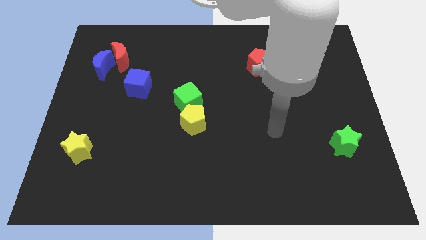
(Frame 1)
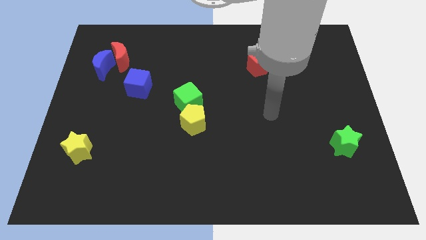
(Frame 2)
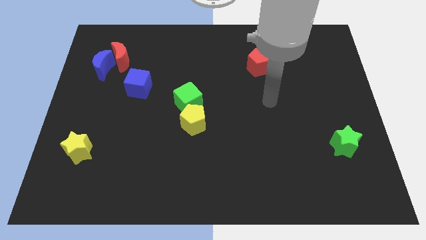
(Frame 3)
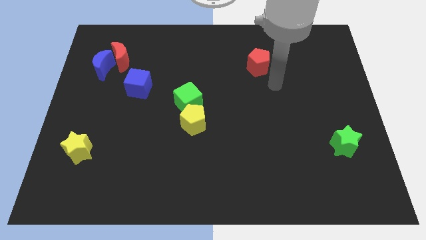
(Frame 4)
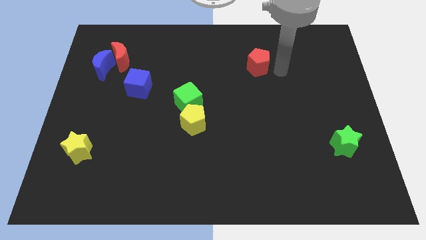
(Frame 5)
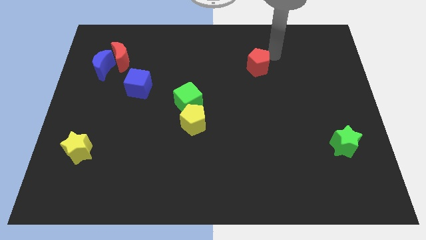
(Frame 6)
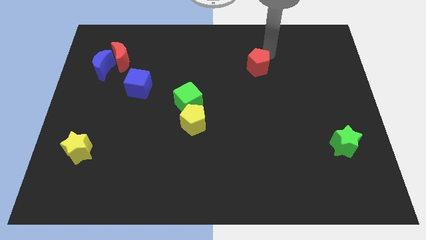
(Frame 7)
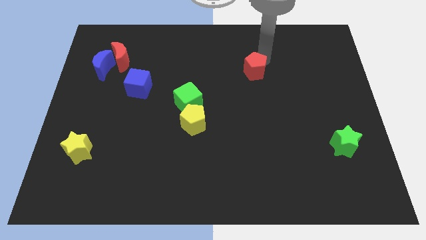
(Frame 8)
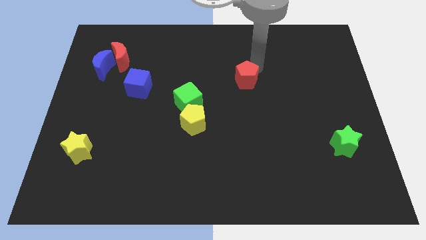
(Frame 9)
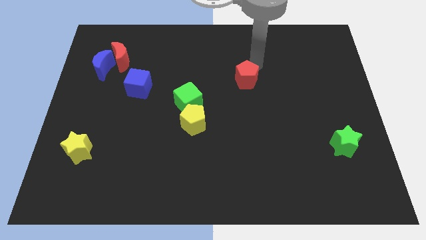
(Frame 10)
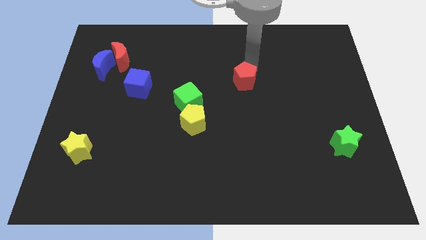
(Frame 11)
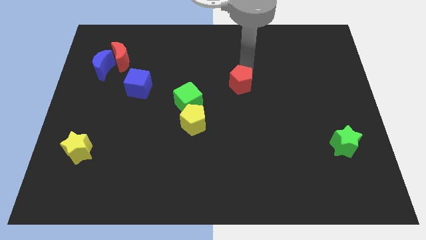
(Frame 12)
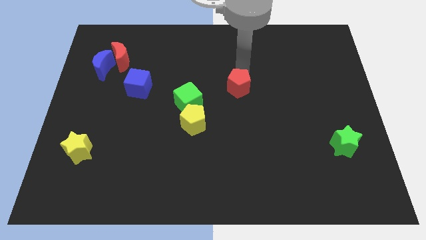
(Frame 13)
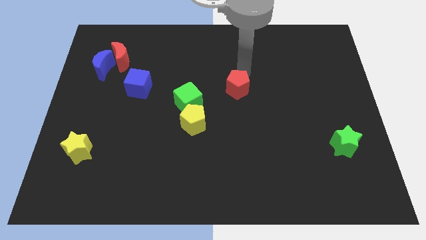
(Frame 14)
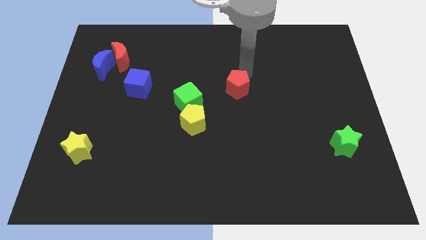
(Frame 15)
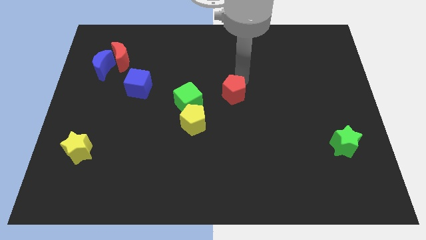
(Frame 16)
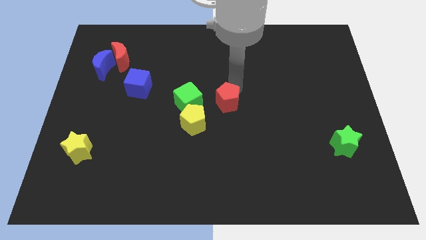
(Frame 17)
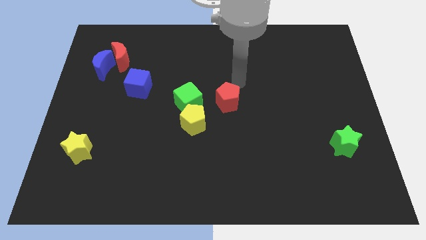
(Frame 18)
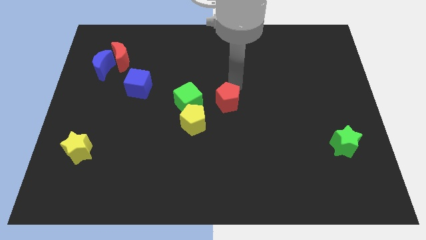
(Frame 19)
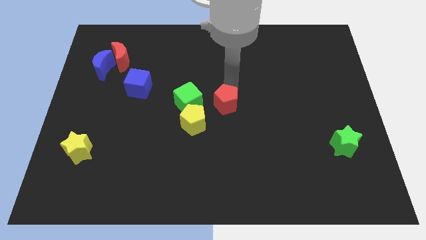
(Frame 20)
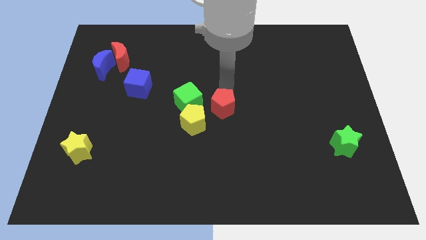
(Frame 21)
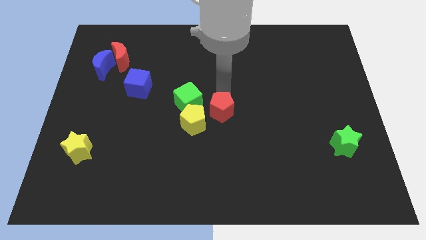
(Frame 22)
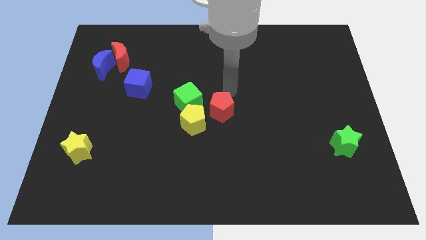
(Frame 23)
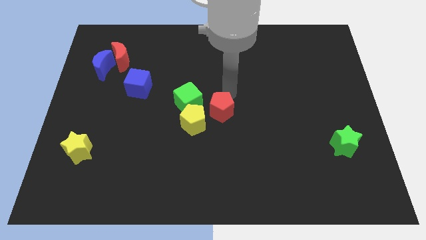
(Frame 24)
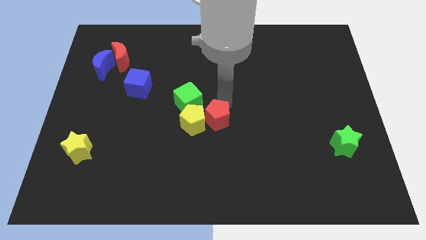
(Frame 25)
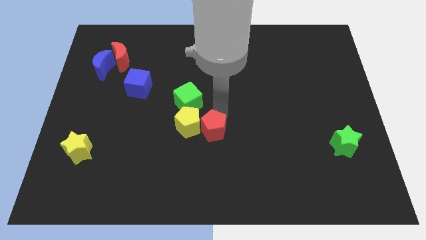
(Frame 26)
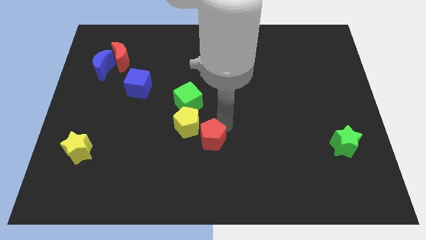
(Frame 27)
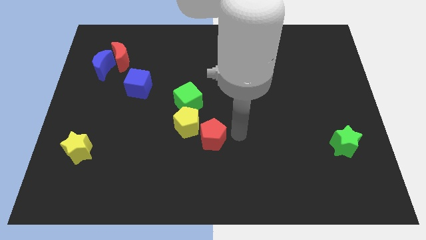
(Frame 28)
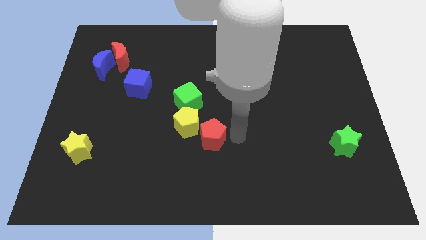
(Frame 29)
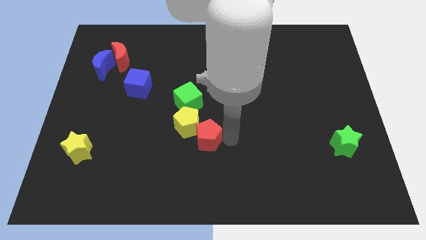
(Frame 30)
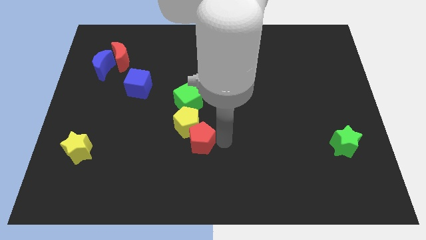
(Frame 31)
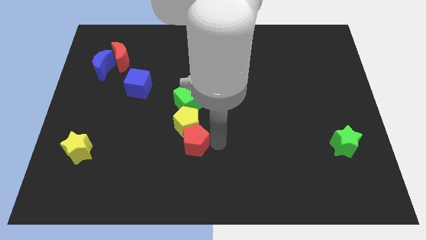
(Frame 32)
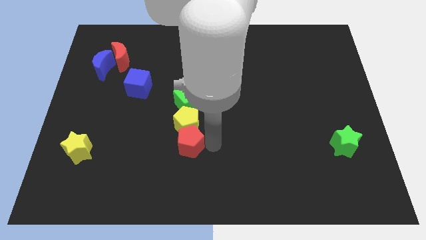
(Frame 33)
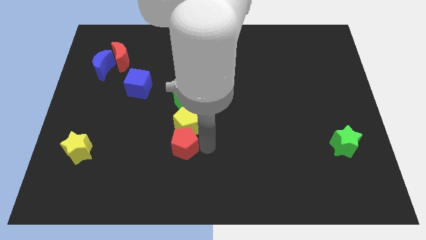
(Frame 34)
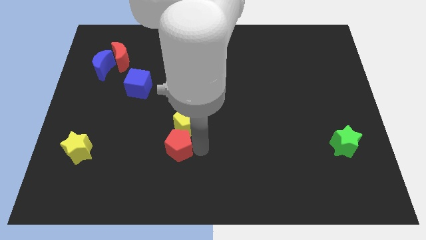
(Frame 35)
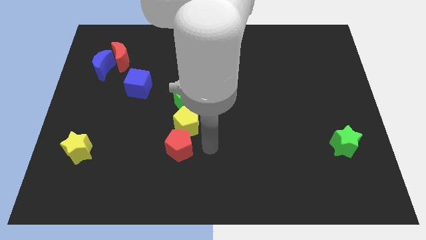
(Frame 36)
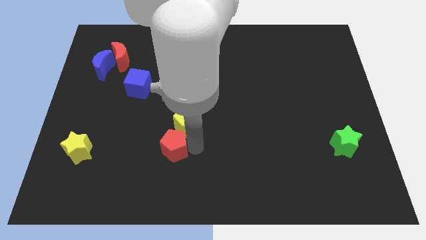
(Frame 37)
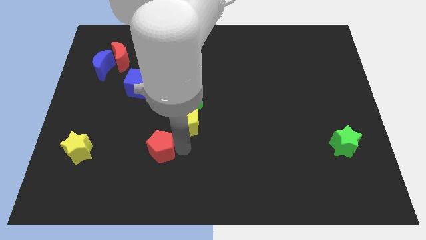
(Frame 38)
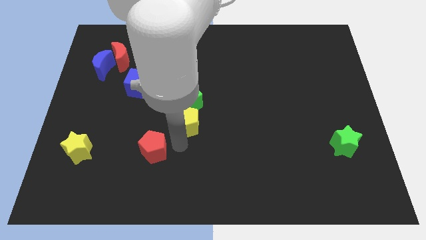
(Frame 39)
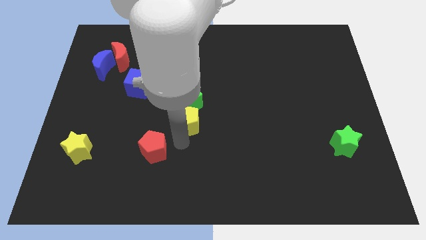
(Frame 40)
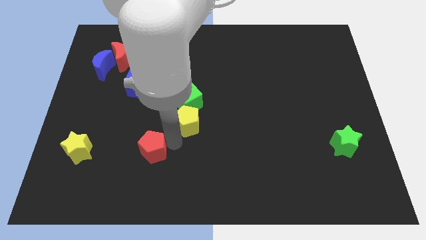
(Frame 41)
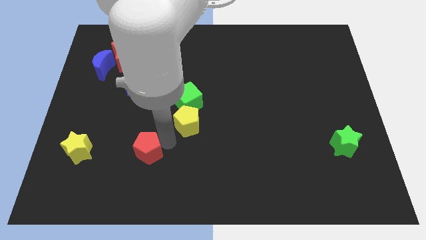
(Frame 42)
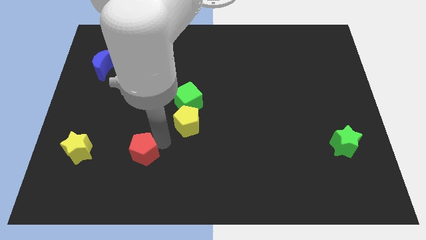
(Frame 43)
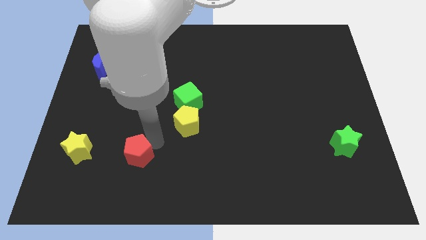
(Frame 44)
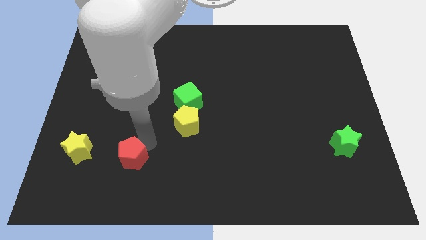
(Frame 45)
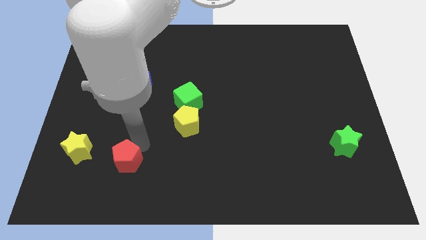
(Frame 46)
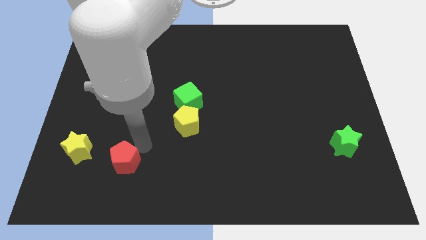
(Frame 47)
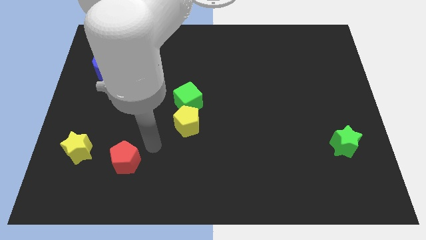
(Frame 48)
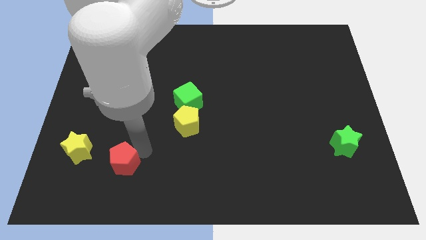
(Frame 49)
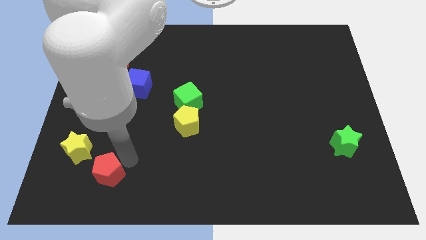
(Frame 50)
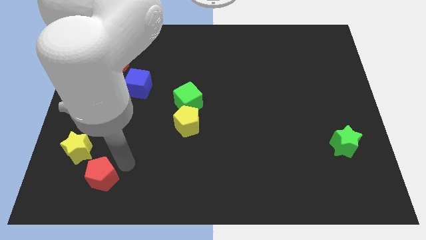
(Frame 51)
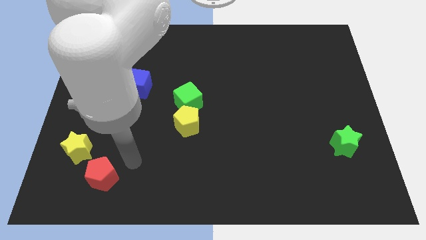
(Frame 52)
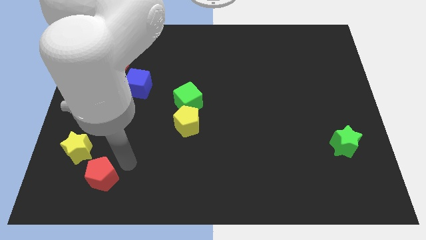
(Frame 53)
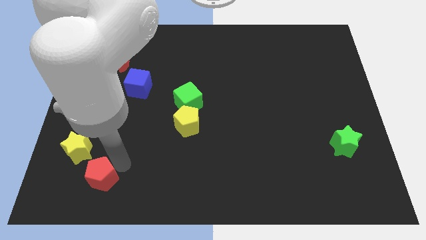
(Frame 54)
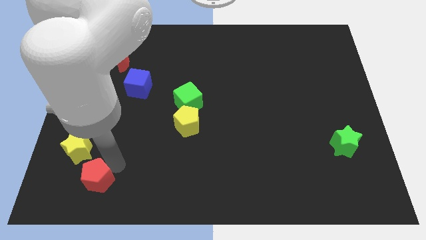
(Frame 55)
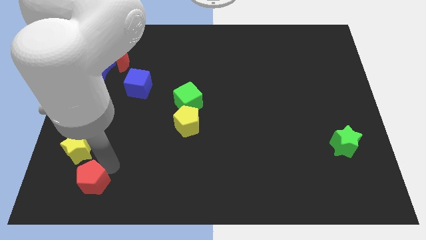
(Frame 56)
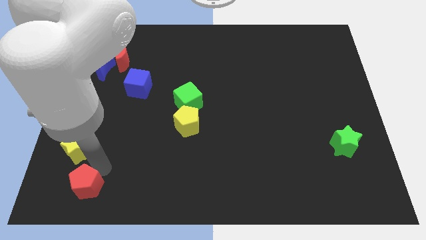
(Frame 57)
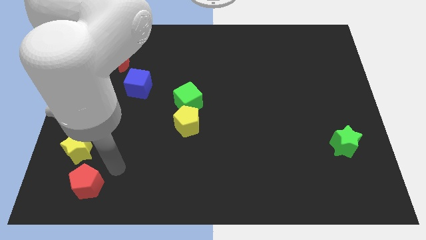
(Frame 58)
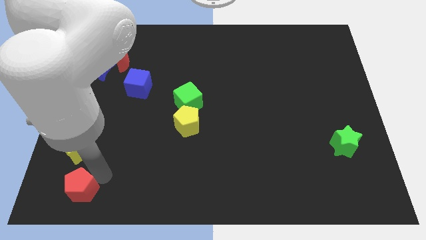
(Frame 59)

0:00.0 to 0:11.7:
slide the red pentagon to the bottom left

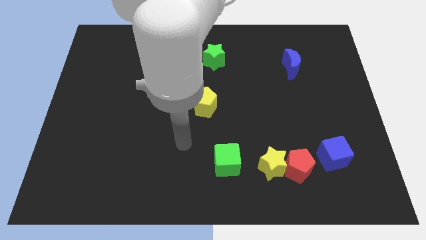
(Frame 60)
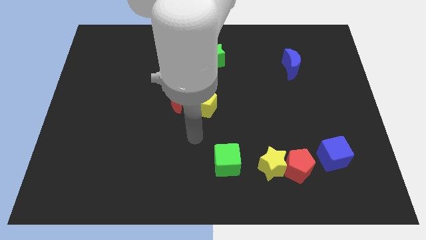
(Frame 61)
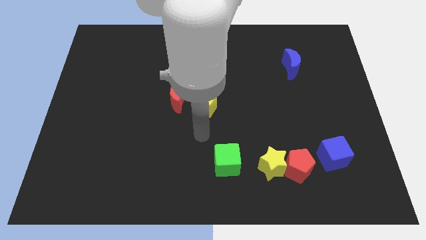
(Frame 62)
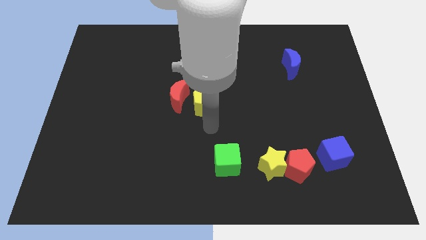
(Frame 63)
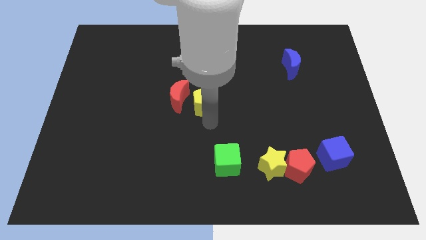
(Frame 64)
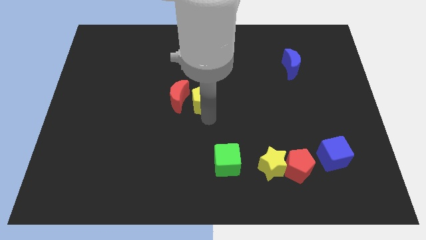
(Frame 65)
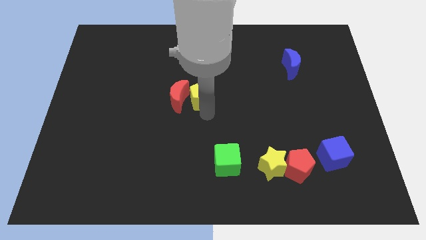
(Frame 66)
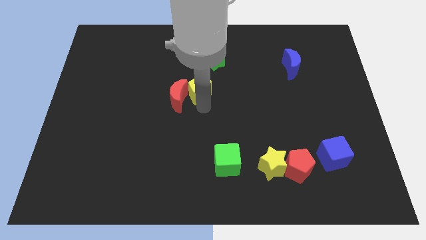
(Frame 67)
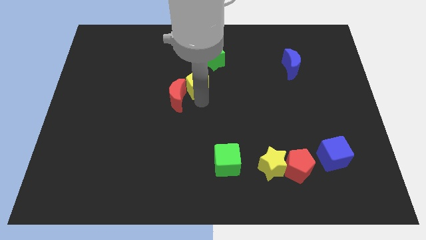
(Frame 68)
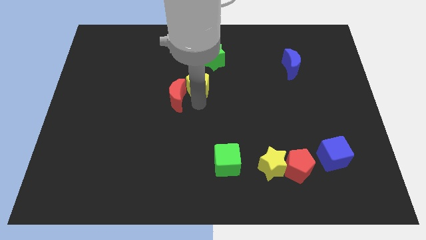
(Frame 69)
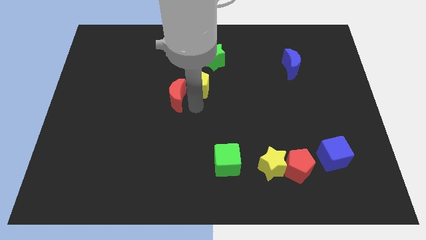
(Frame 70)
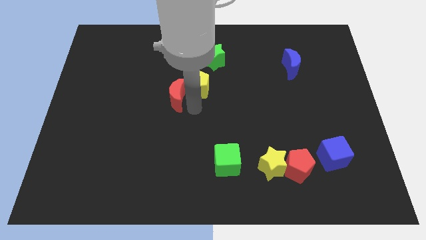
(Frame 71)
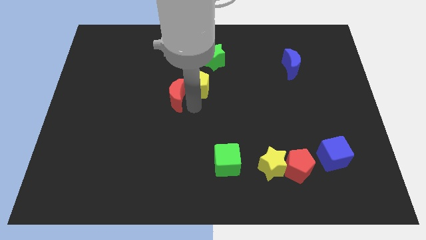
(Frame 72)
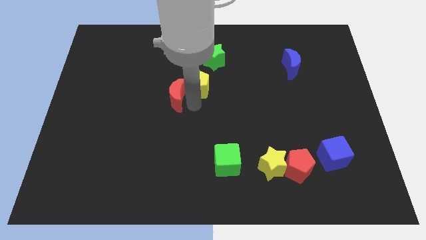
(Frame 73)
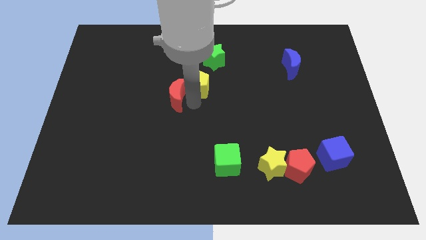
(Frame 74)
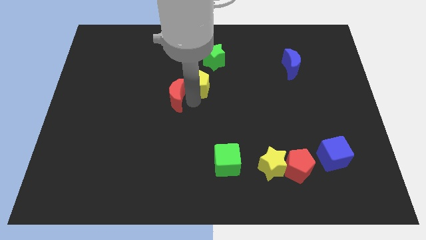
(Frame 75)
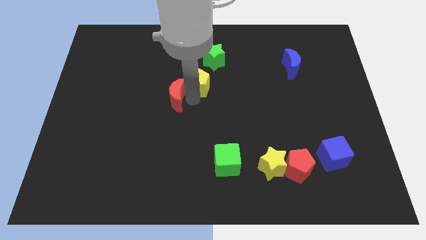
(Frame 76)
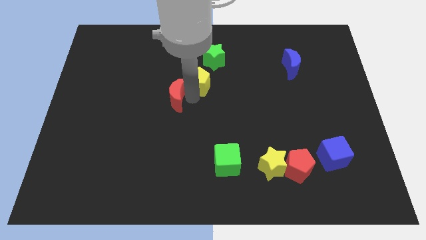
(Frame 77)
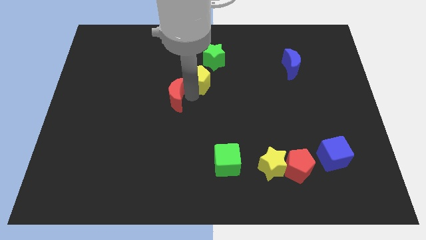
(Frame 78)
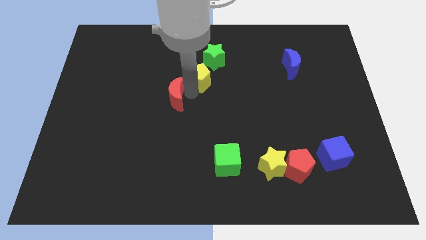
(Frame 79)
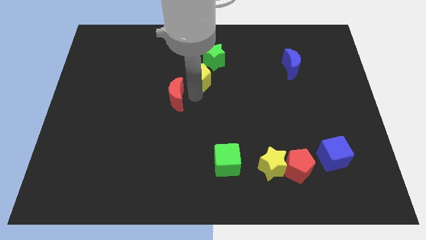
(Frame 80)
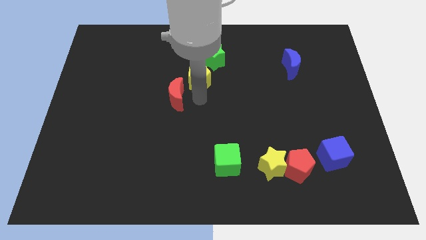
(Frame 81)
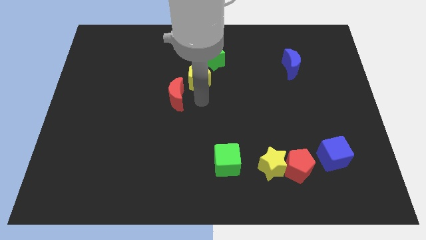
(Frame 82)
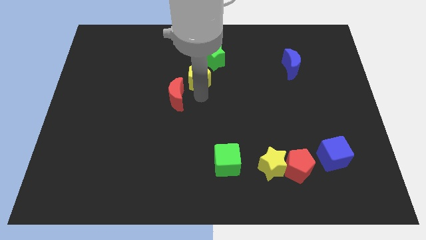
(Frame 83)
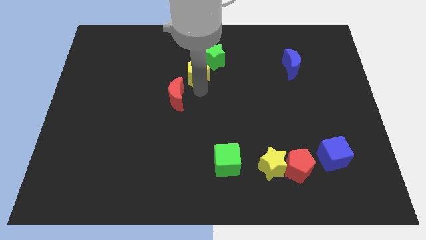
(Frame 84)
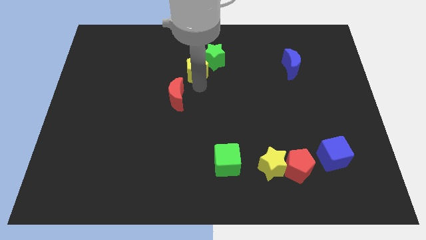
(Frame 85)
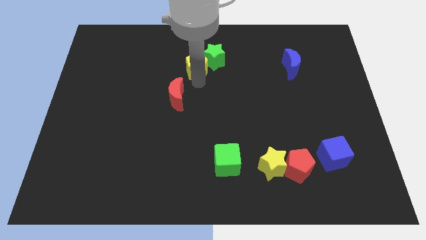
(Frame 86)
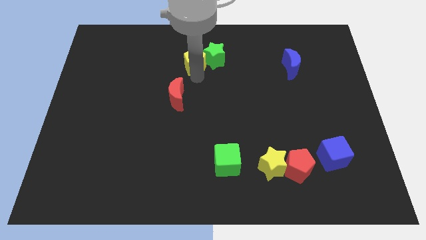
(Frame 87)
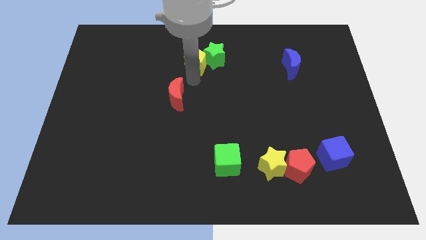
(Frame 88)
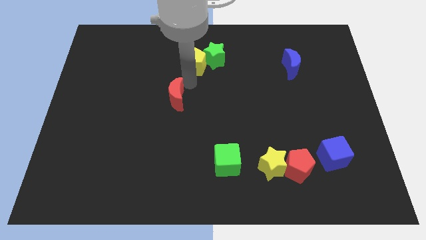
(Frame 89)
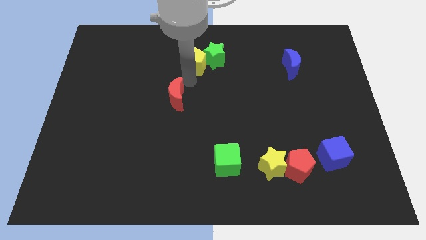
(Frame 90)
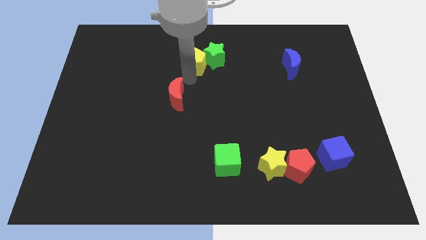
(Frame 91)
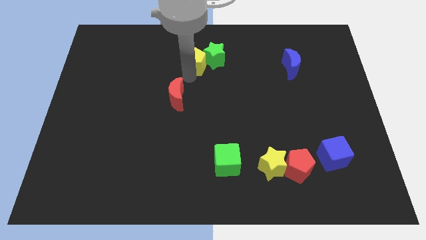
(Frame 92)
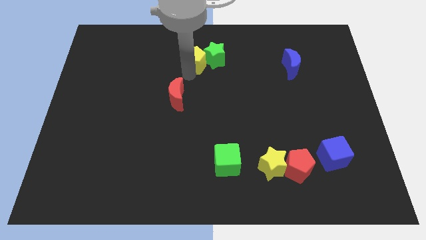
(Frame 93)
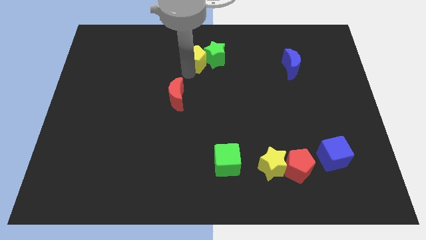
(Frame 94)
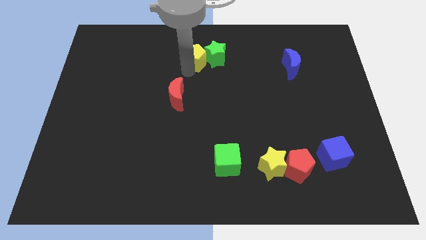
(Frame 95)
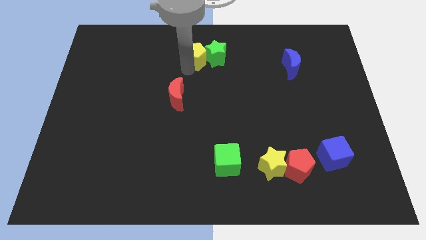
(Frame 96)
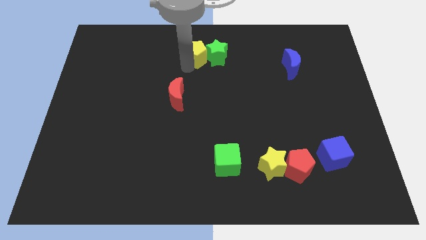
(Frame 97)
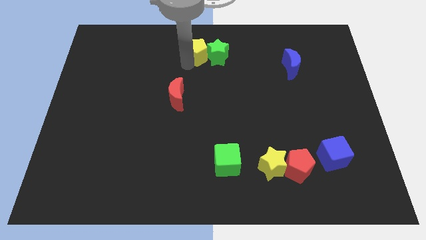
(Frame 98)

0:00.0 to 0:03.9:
slide the yellow pentagon to the top side
